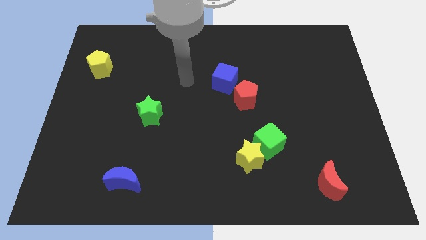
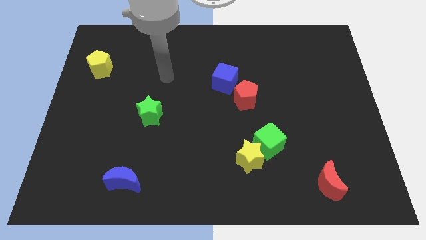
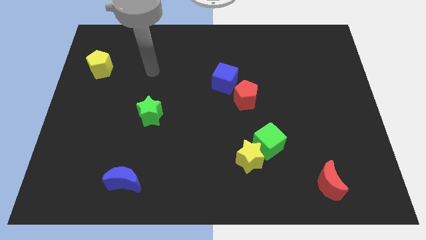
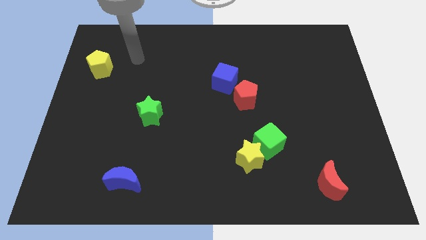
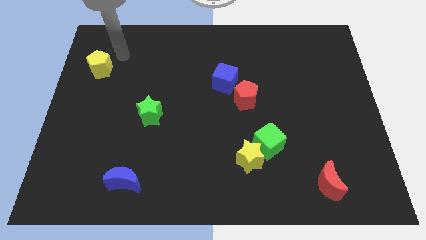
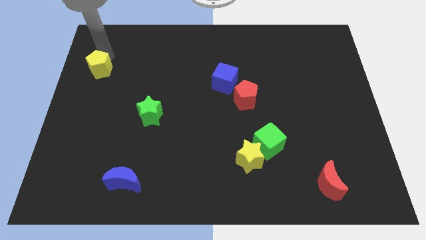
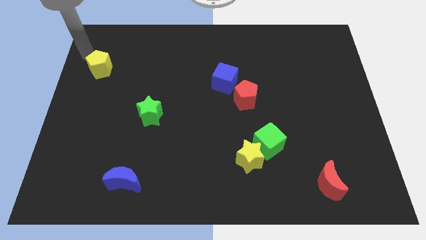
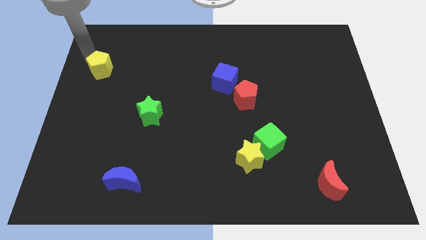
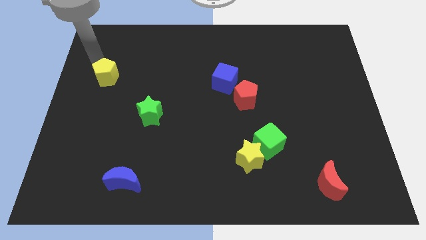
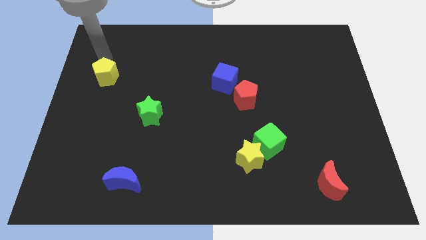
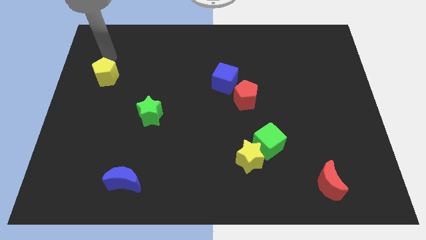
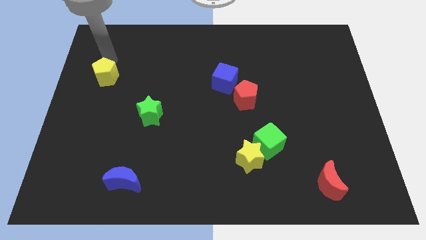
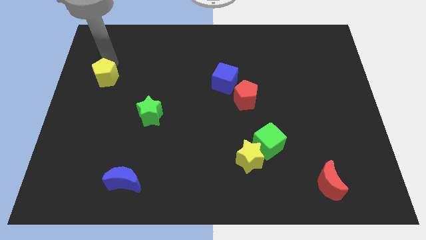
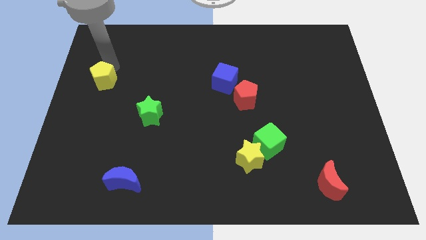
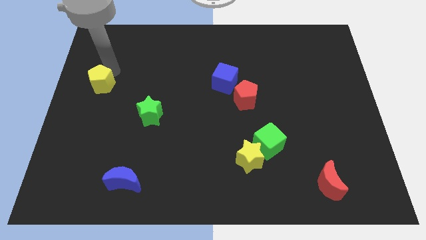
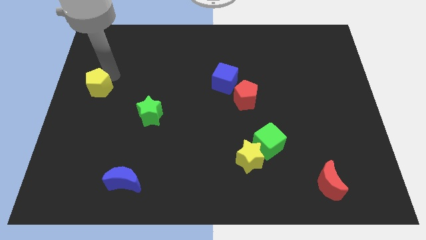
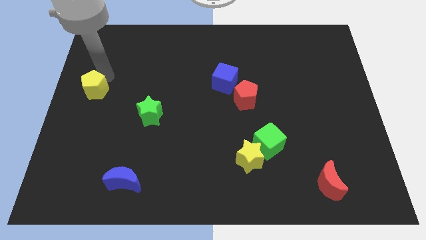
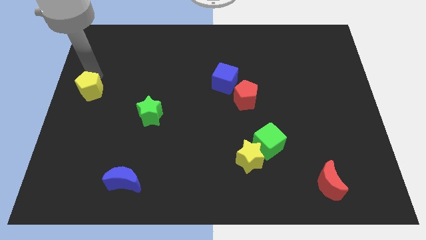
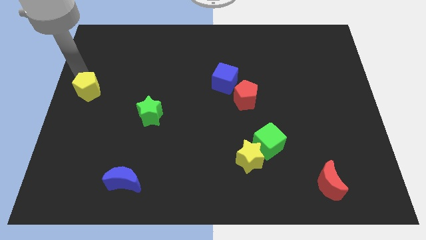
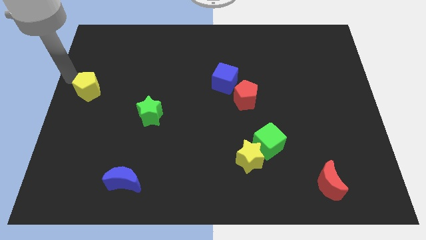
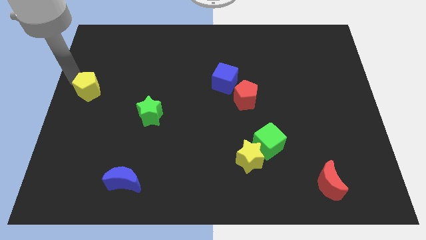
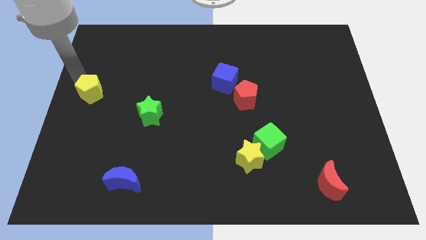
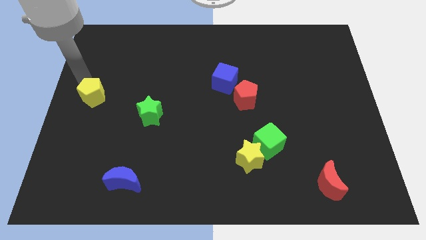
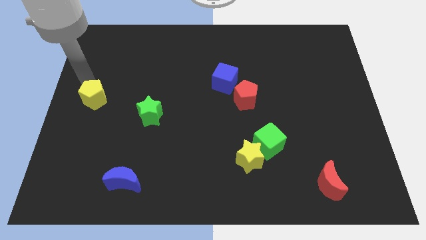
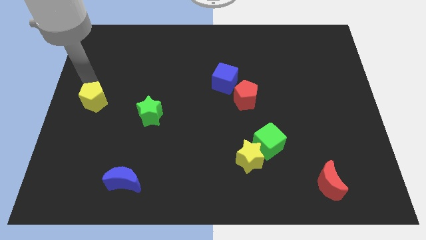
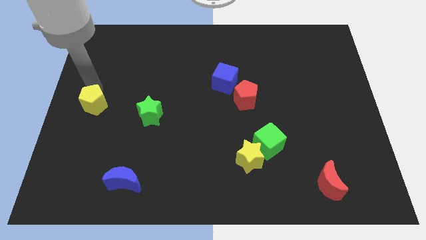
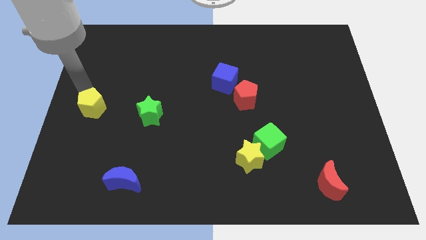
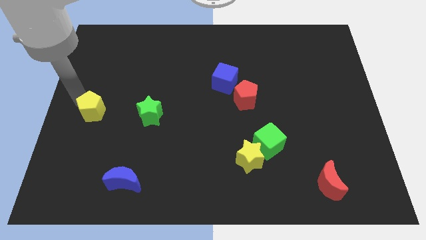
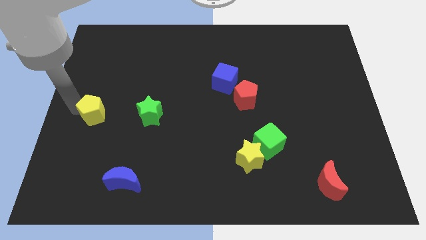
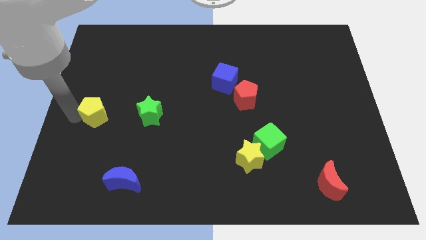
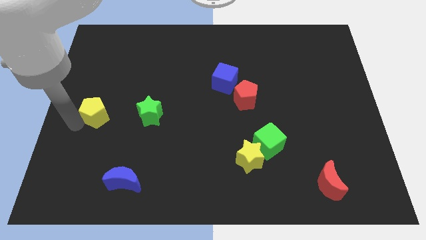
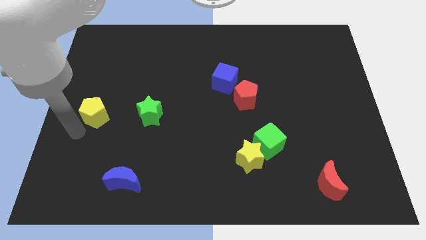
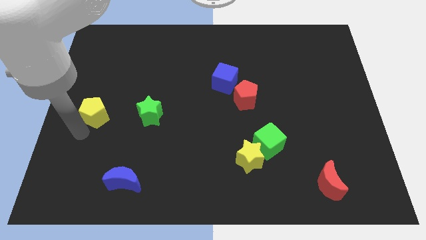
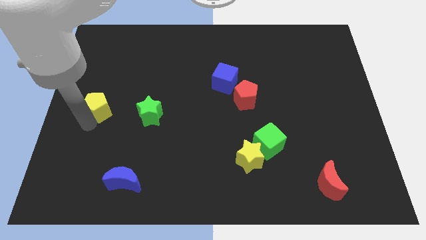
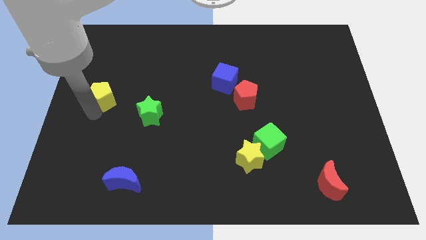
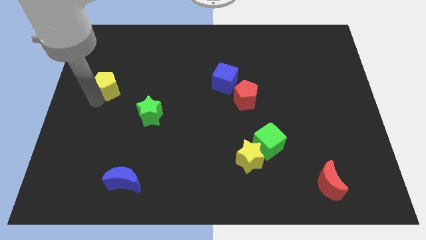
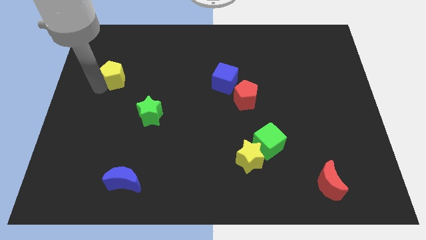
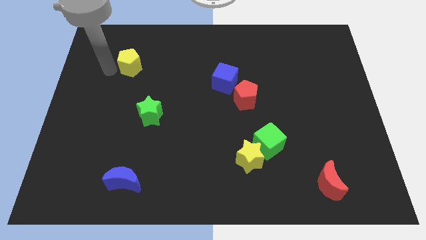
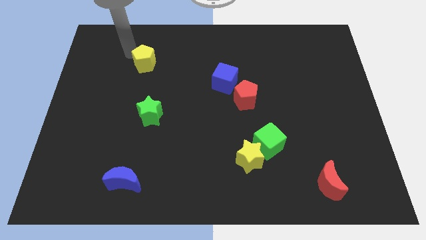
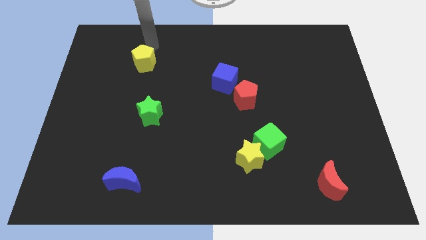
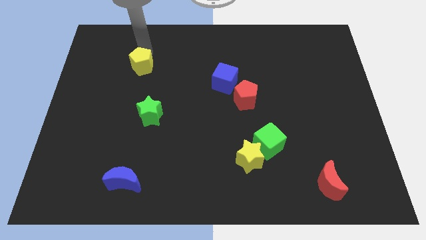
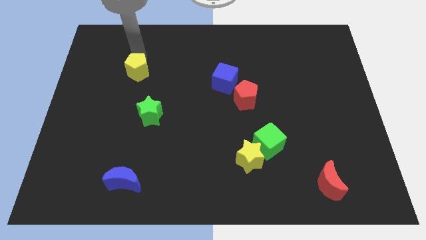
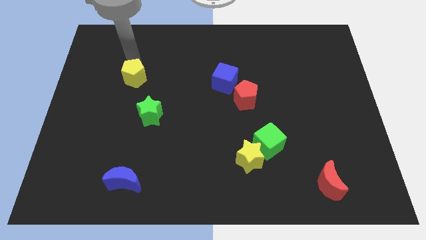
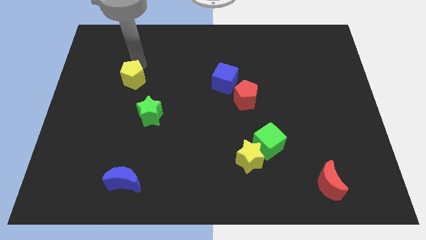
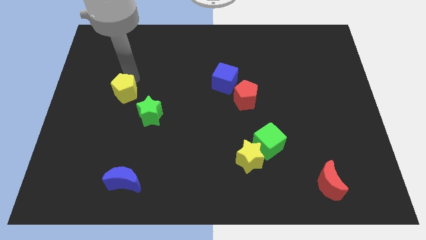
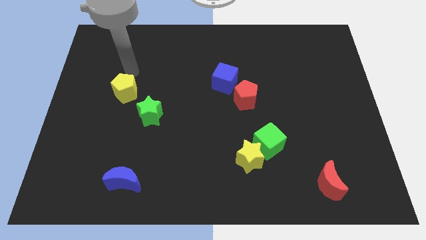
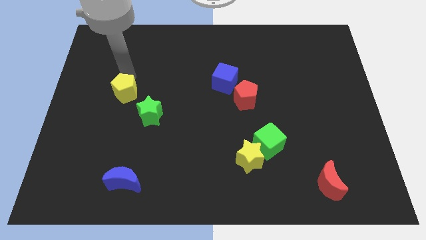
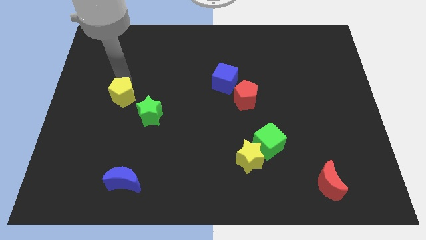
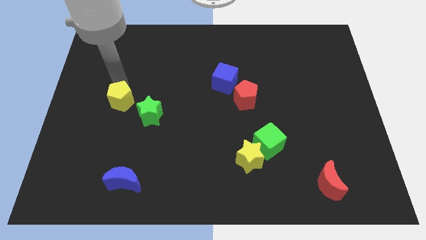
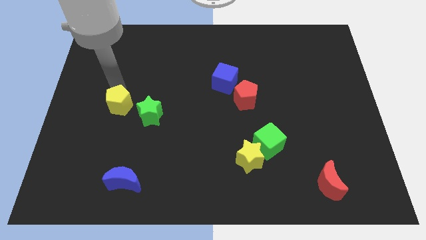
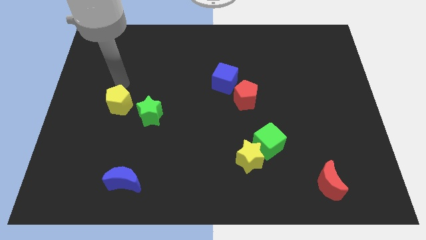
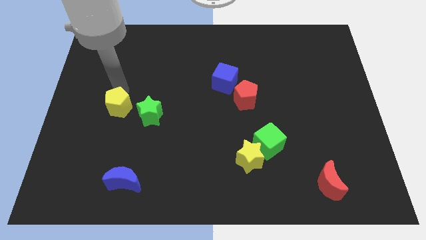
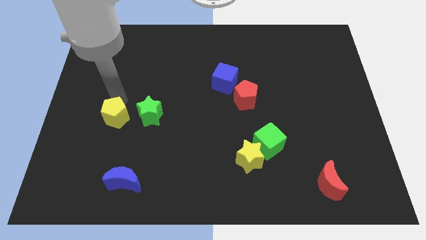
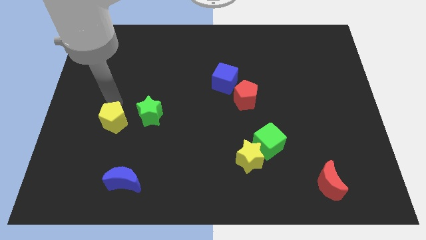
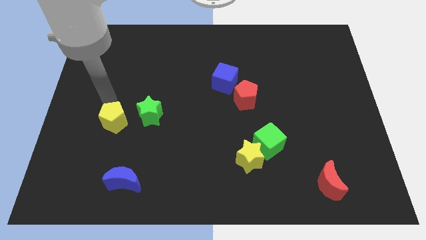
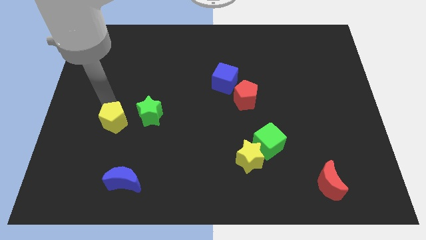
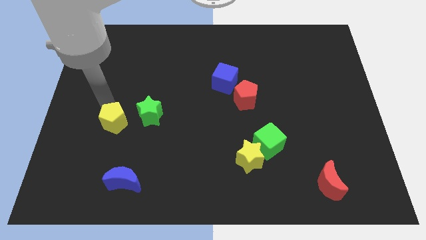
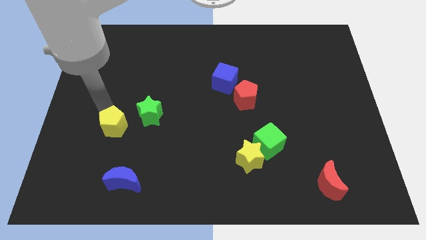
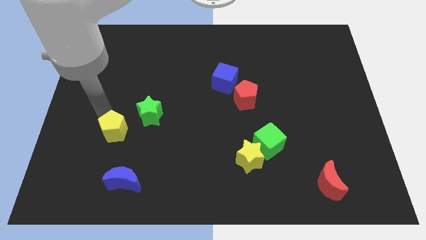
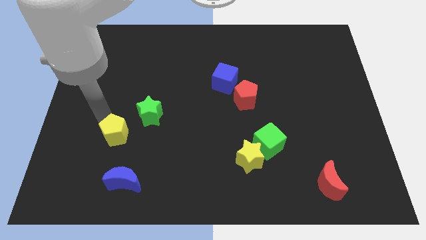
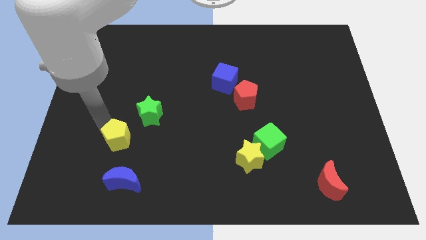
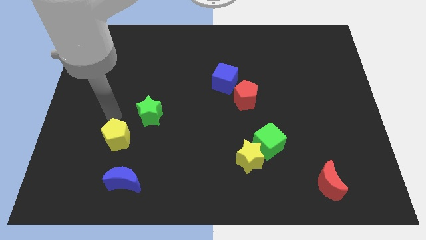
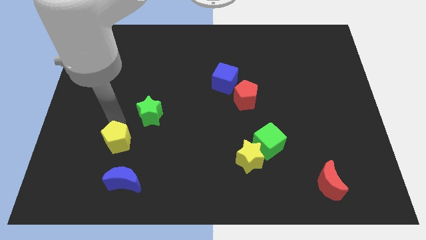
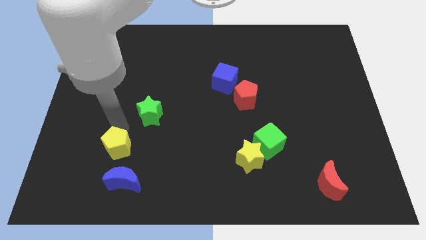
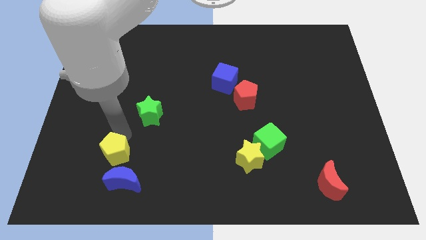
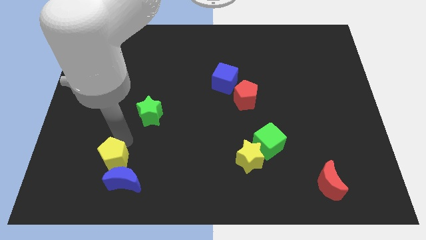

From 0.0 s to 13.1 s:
push the yellow pentagon towards the blue moon
